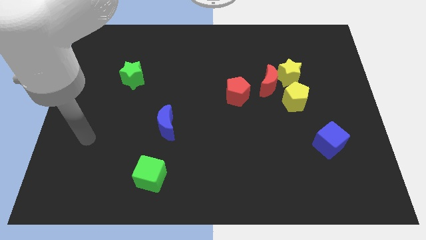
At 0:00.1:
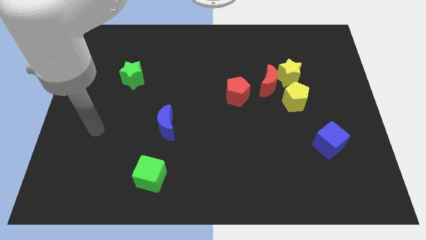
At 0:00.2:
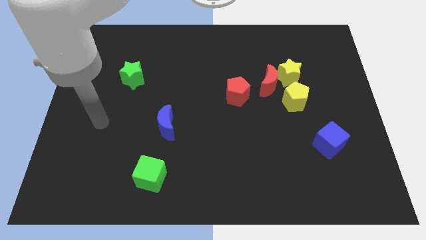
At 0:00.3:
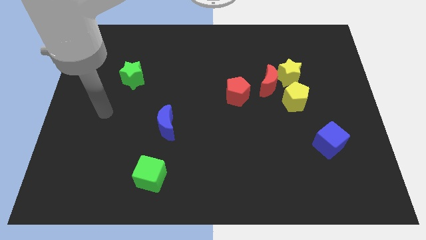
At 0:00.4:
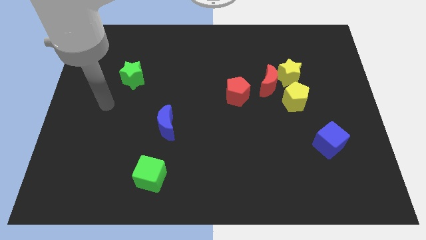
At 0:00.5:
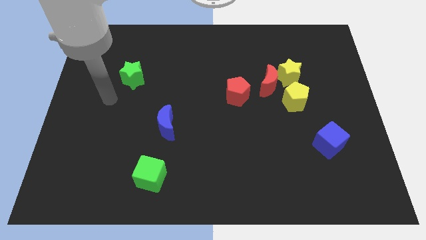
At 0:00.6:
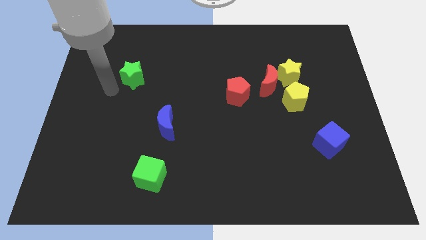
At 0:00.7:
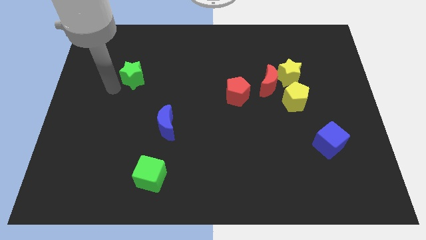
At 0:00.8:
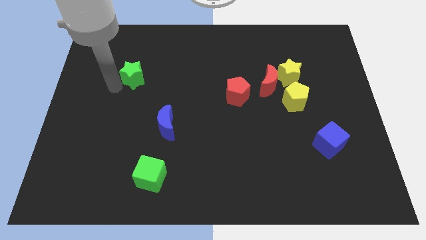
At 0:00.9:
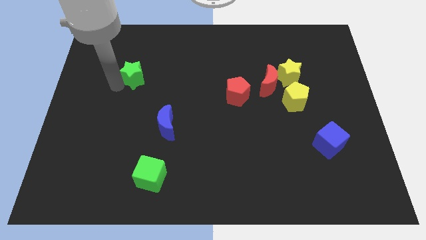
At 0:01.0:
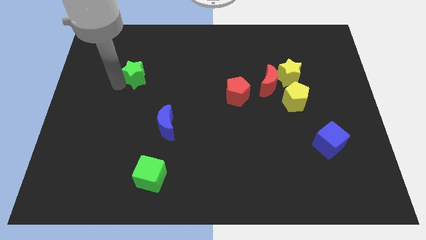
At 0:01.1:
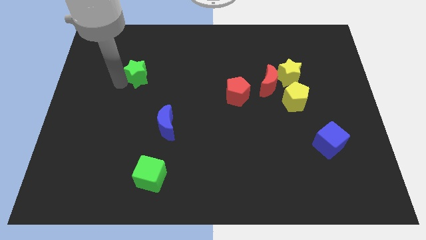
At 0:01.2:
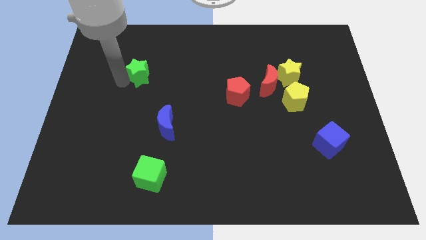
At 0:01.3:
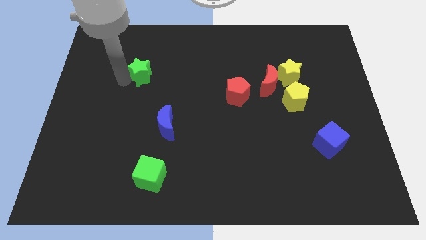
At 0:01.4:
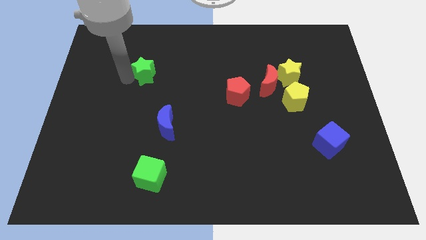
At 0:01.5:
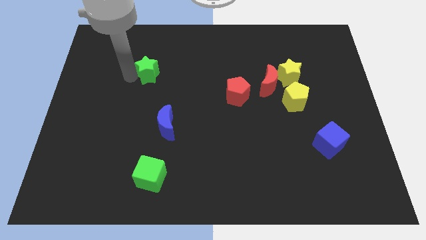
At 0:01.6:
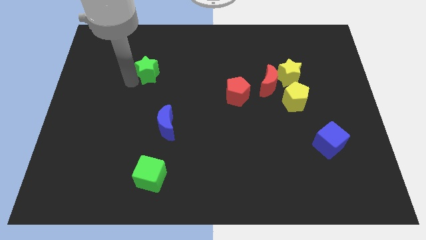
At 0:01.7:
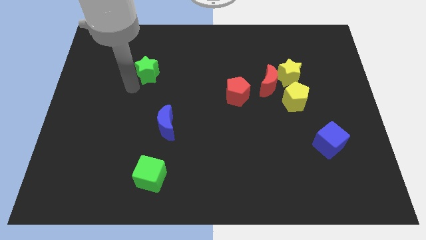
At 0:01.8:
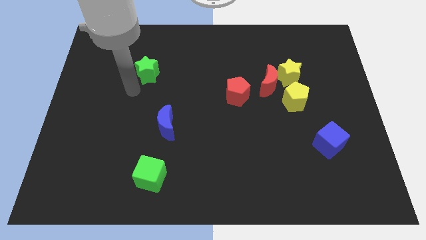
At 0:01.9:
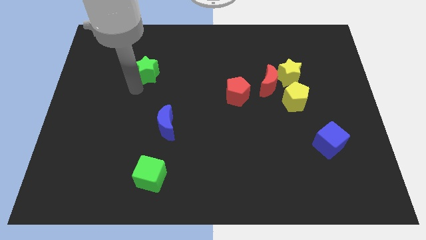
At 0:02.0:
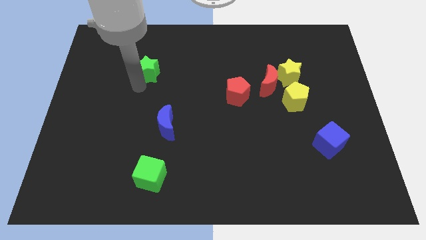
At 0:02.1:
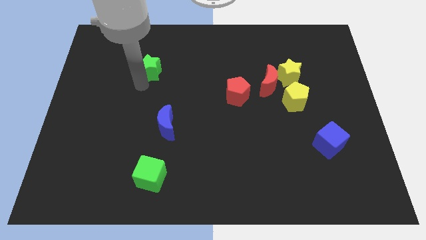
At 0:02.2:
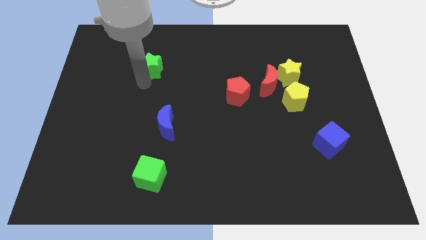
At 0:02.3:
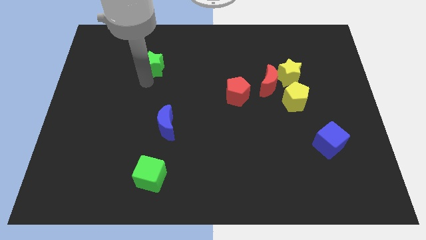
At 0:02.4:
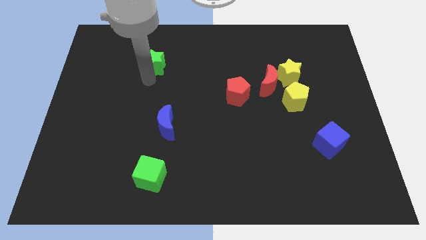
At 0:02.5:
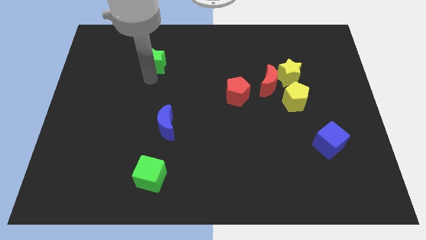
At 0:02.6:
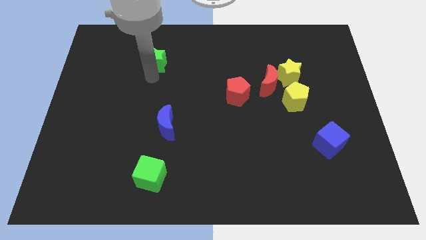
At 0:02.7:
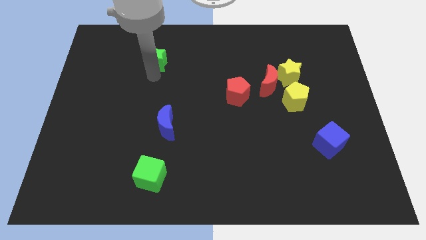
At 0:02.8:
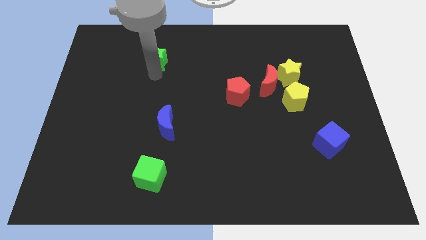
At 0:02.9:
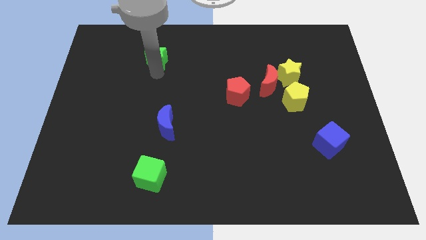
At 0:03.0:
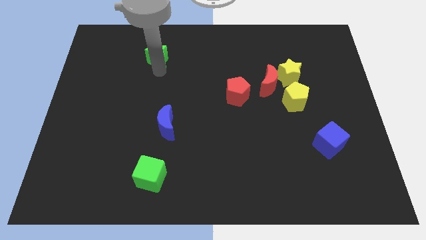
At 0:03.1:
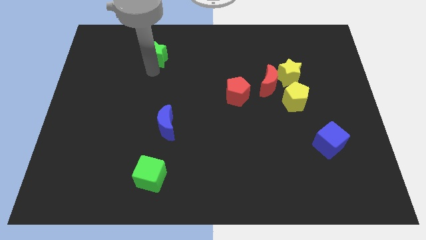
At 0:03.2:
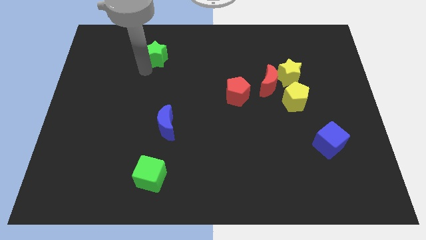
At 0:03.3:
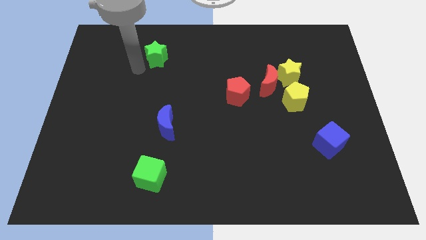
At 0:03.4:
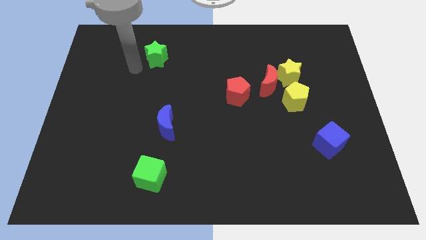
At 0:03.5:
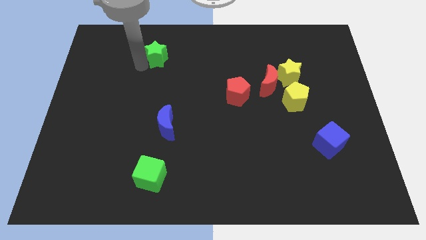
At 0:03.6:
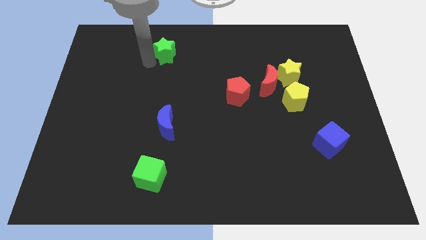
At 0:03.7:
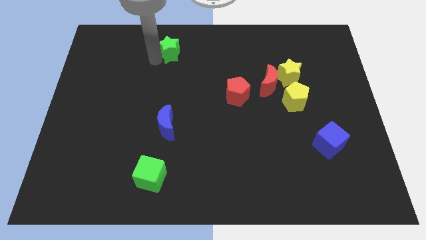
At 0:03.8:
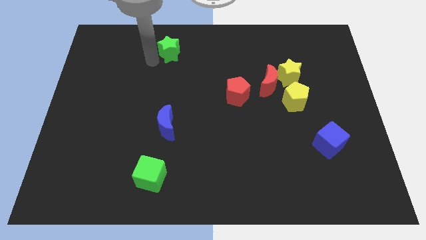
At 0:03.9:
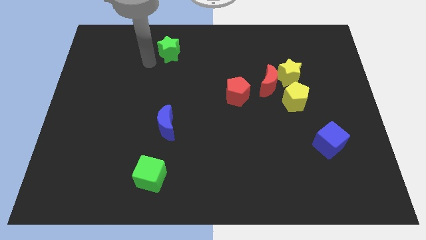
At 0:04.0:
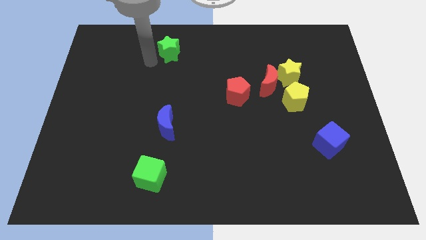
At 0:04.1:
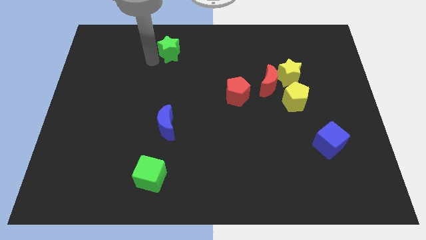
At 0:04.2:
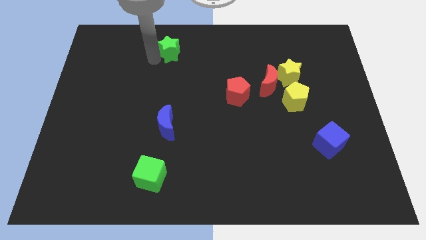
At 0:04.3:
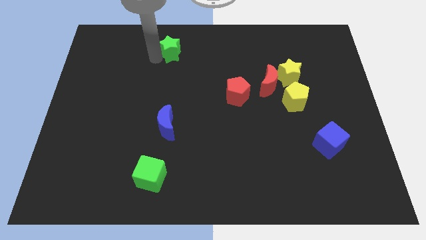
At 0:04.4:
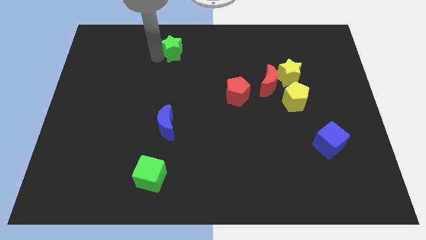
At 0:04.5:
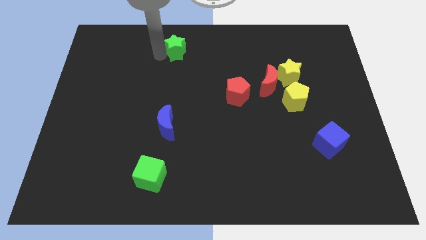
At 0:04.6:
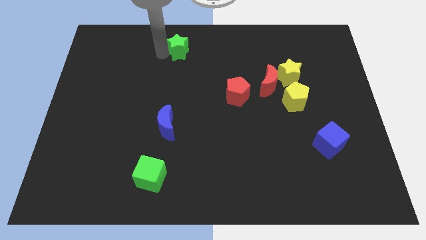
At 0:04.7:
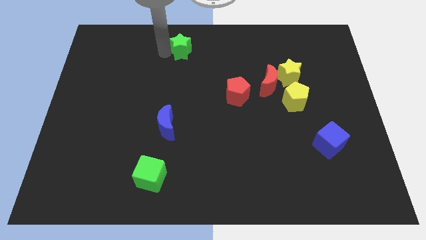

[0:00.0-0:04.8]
move the green star to the top side

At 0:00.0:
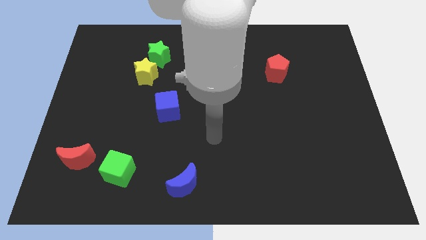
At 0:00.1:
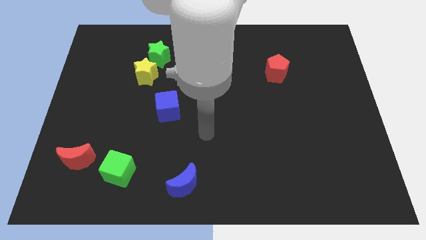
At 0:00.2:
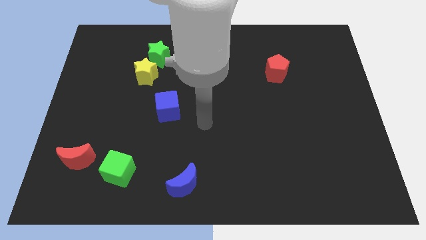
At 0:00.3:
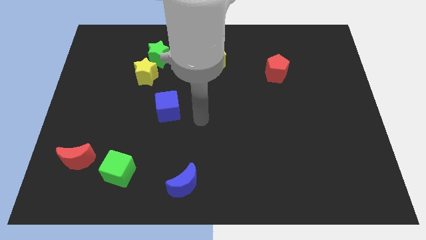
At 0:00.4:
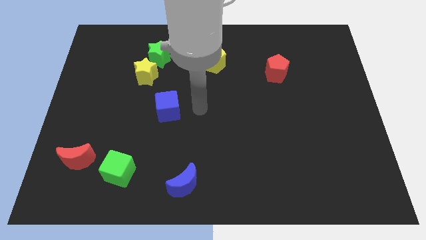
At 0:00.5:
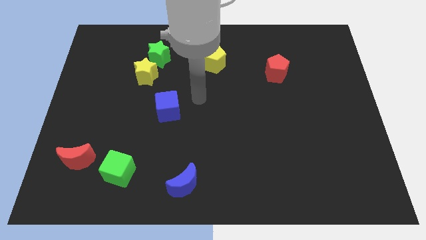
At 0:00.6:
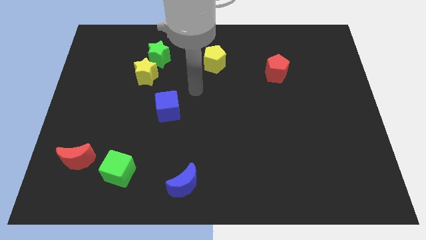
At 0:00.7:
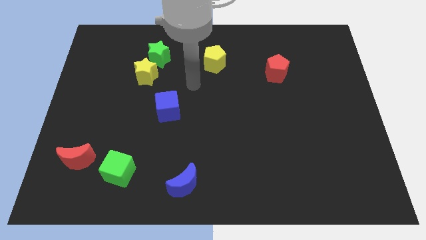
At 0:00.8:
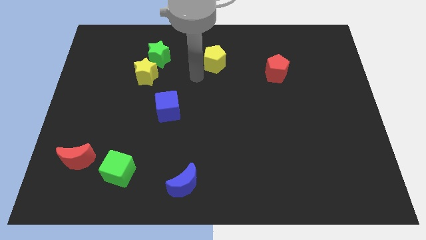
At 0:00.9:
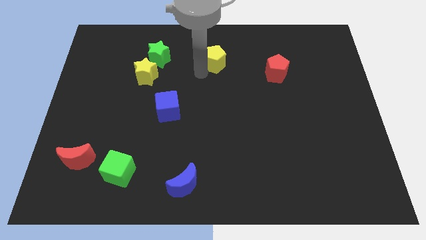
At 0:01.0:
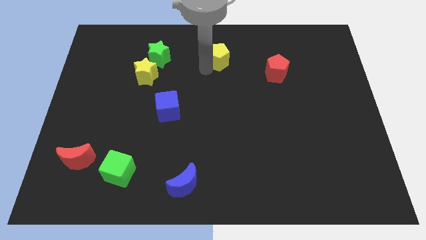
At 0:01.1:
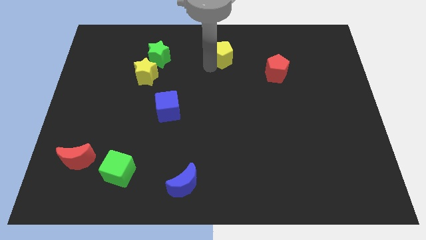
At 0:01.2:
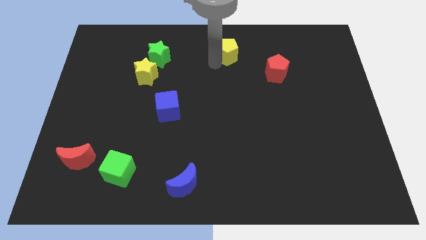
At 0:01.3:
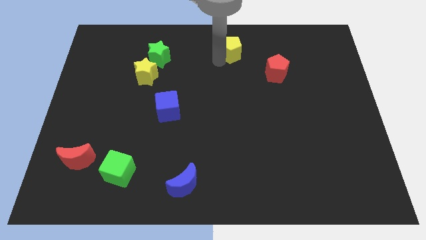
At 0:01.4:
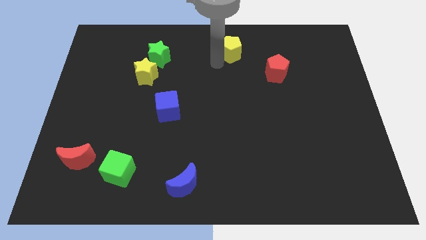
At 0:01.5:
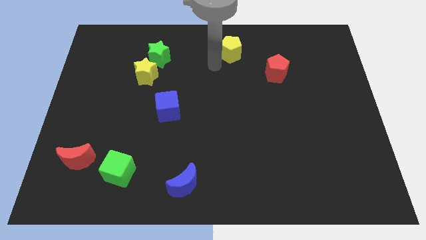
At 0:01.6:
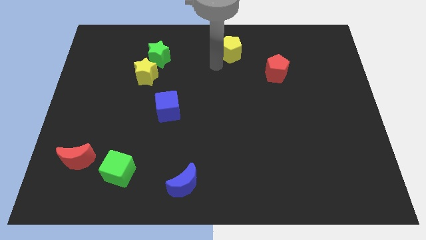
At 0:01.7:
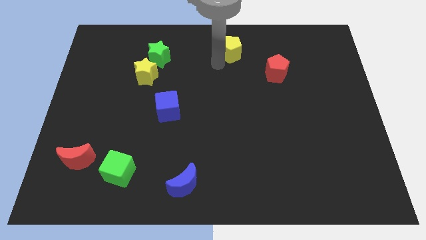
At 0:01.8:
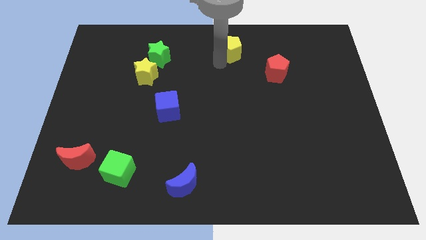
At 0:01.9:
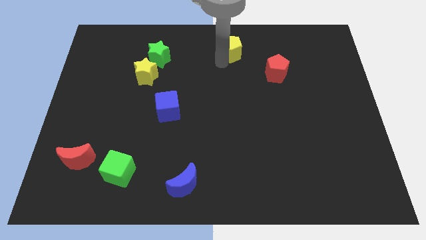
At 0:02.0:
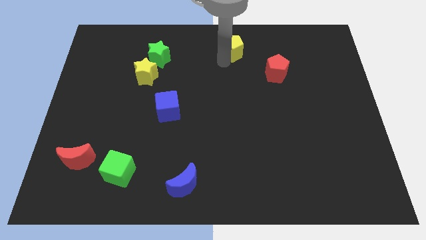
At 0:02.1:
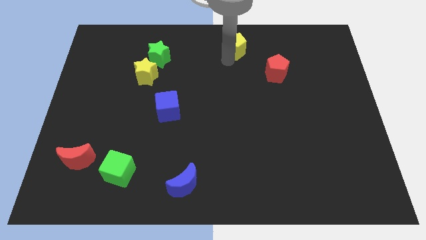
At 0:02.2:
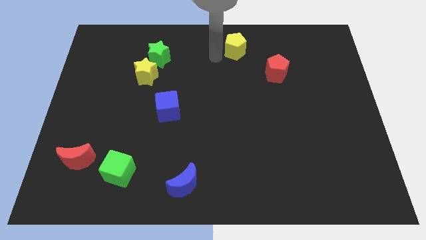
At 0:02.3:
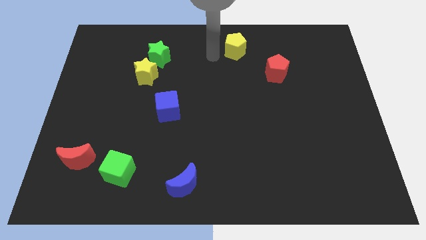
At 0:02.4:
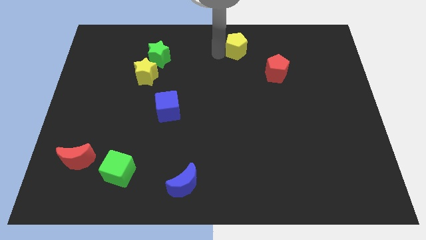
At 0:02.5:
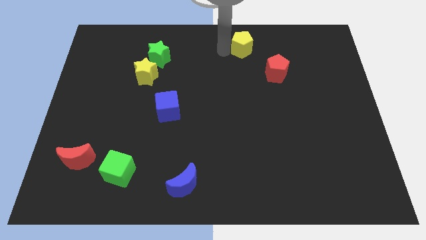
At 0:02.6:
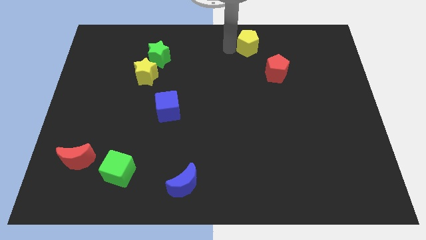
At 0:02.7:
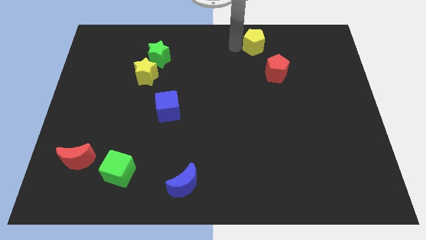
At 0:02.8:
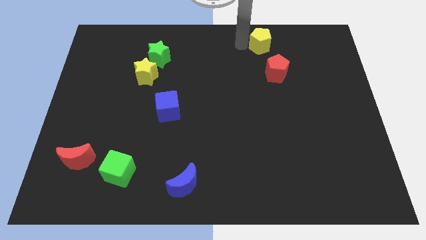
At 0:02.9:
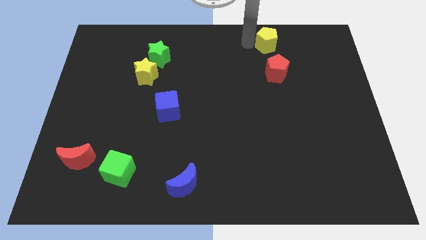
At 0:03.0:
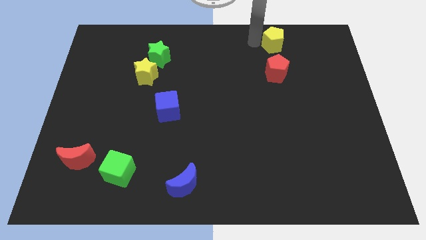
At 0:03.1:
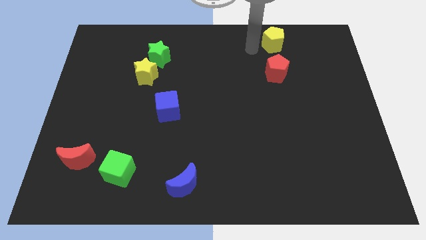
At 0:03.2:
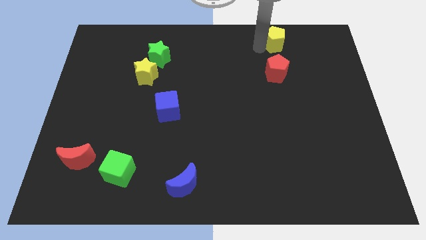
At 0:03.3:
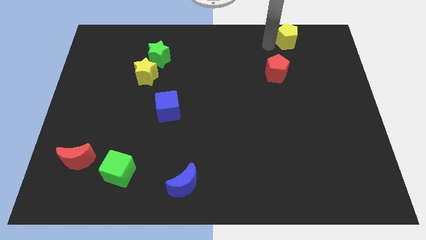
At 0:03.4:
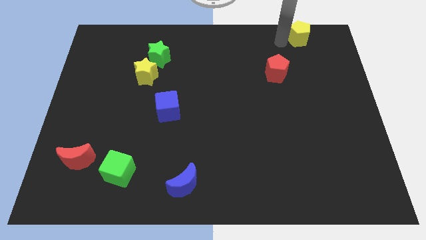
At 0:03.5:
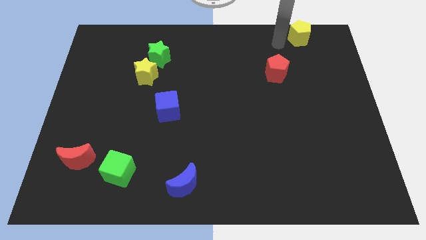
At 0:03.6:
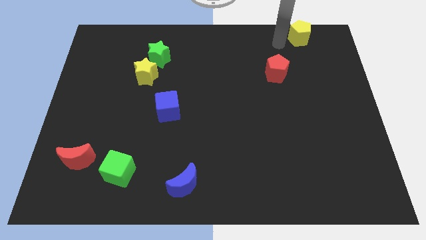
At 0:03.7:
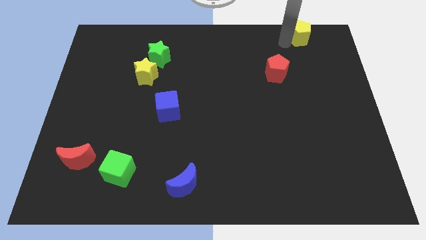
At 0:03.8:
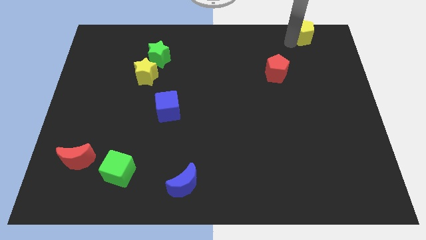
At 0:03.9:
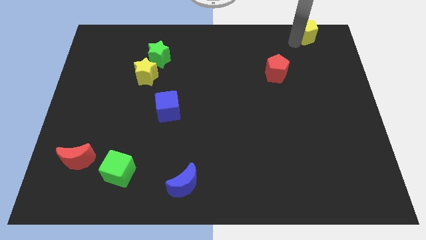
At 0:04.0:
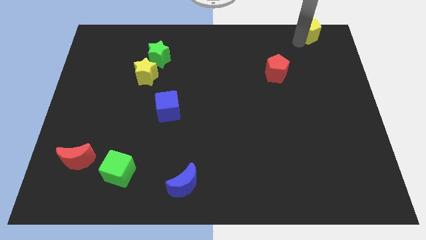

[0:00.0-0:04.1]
move the yellow pentagon to the upper right corner
